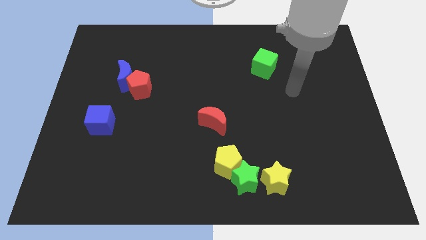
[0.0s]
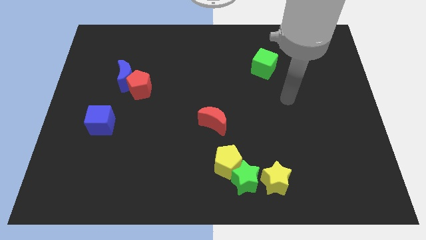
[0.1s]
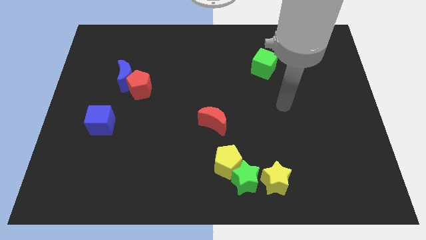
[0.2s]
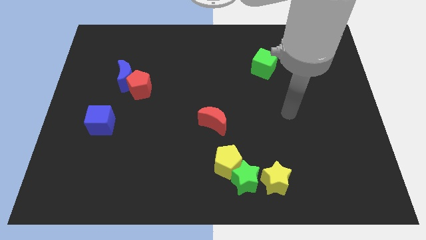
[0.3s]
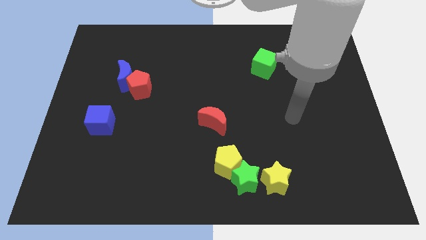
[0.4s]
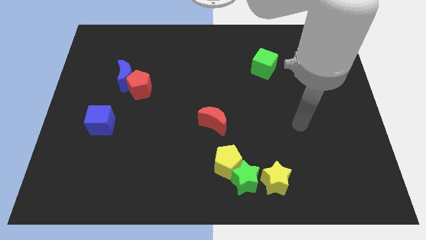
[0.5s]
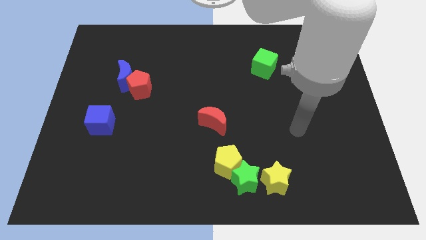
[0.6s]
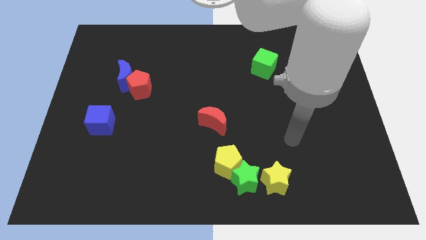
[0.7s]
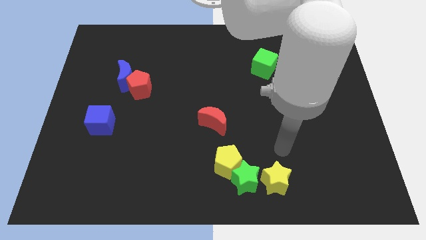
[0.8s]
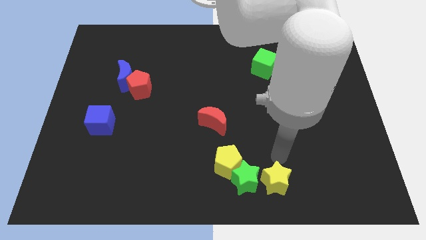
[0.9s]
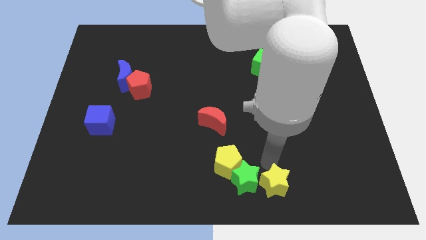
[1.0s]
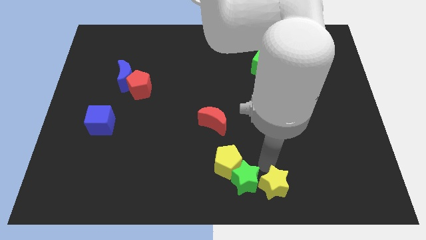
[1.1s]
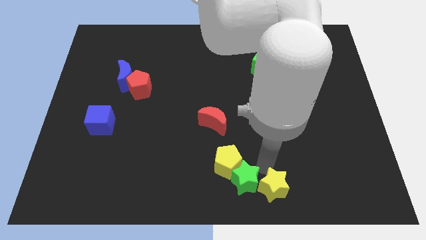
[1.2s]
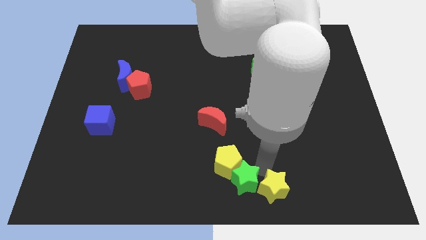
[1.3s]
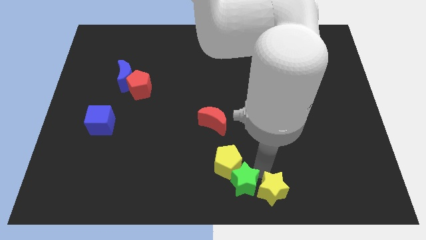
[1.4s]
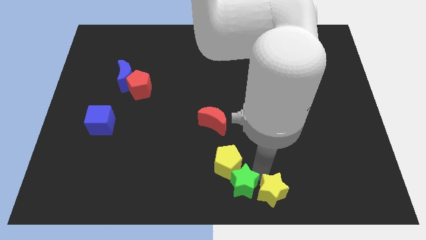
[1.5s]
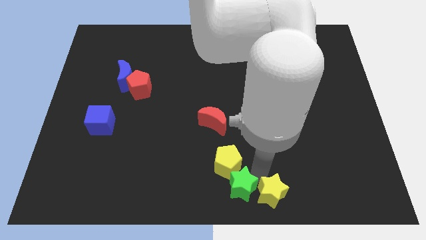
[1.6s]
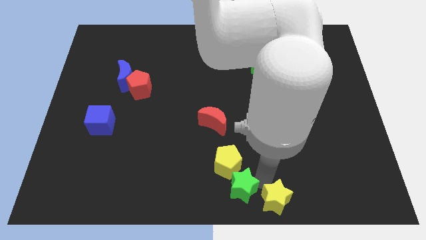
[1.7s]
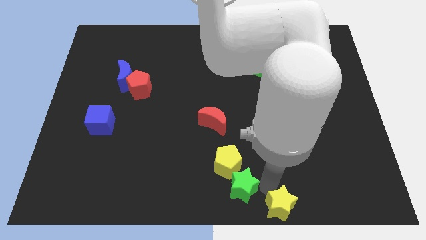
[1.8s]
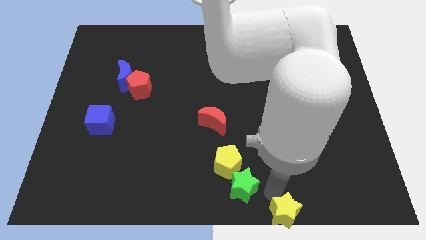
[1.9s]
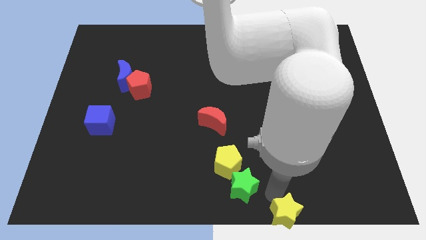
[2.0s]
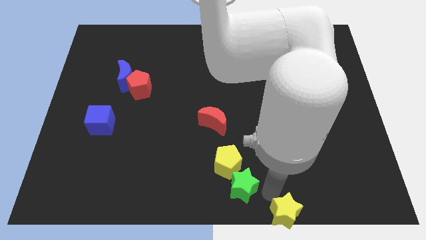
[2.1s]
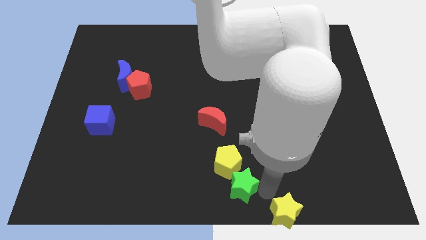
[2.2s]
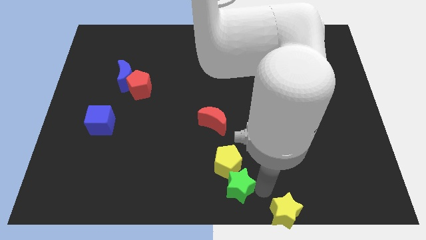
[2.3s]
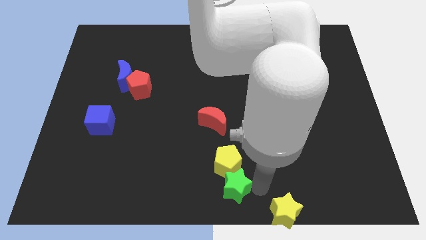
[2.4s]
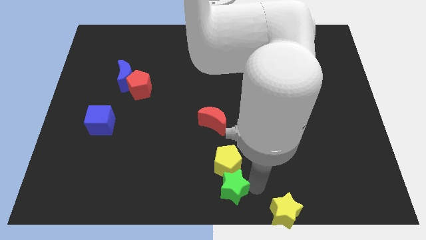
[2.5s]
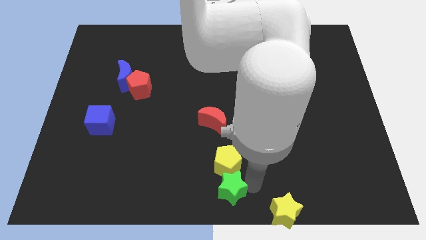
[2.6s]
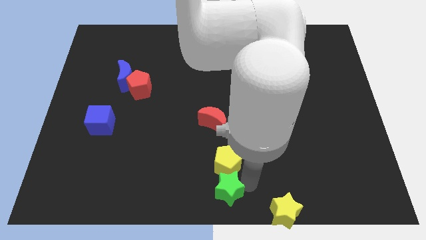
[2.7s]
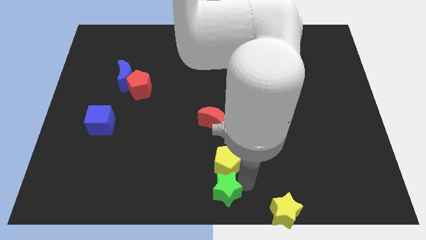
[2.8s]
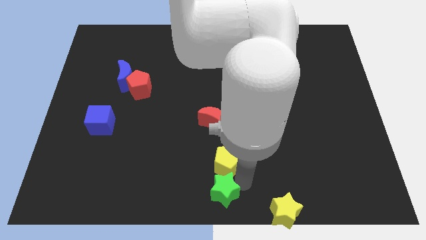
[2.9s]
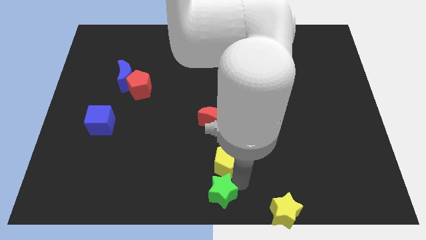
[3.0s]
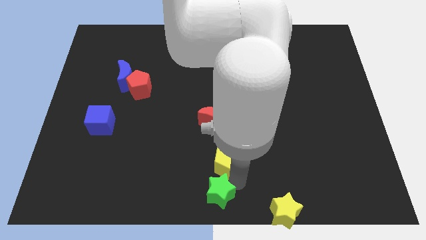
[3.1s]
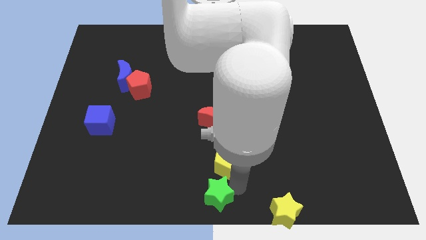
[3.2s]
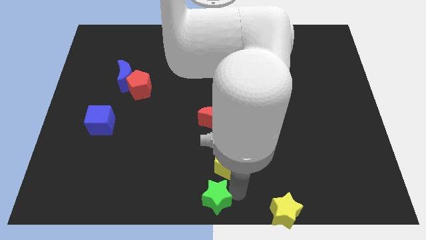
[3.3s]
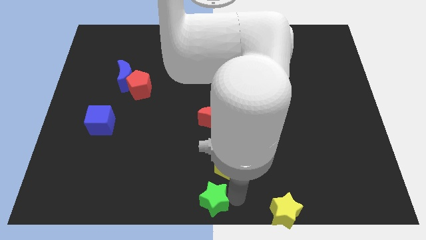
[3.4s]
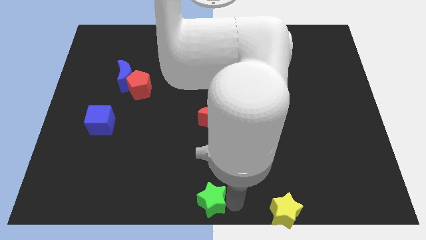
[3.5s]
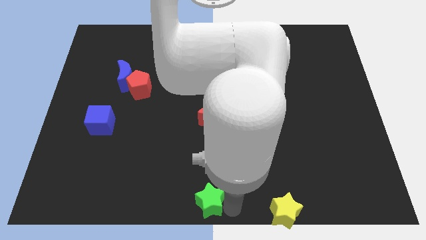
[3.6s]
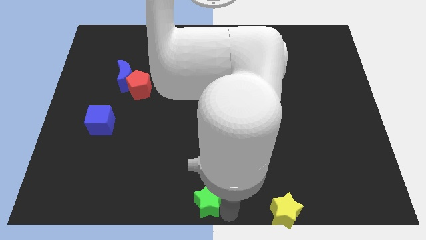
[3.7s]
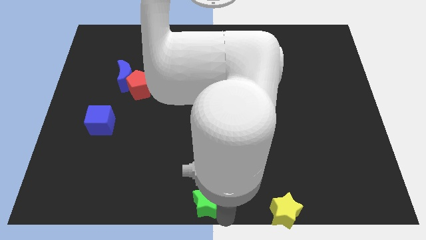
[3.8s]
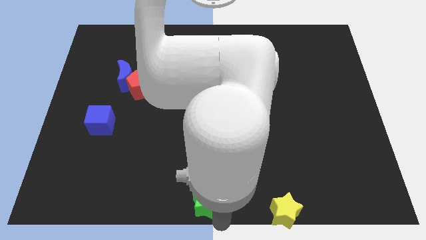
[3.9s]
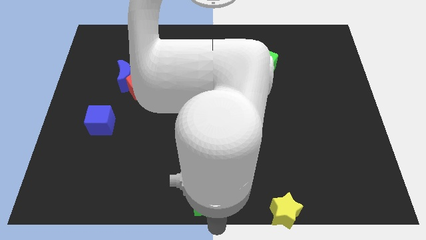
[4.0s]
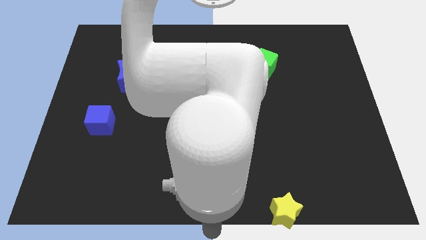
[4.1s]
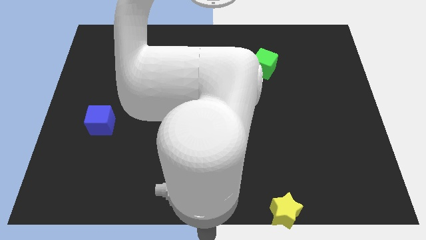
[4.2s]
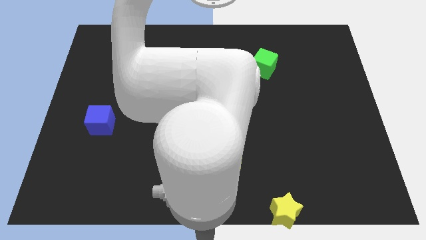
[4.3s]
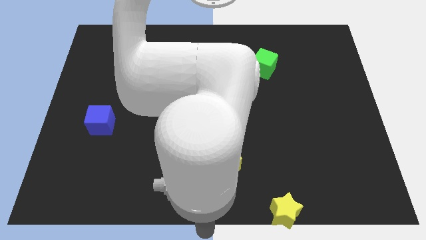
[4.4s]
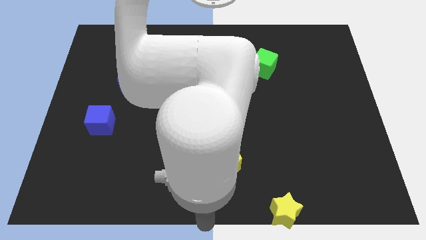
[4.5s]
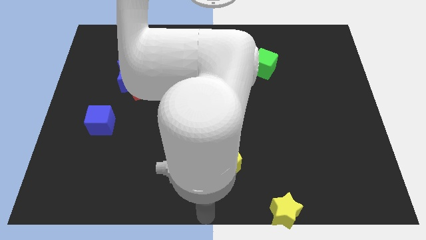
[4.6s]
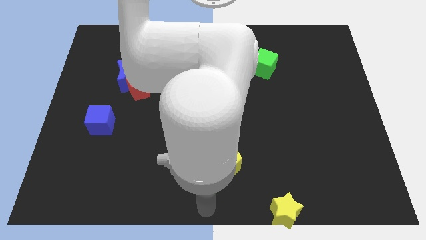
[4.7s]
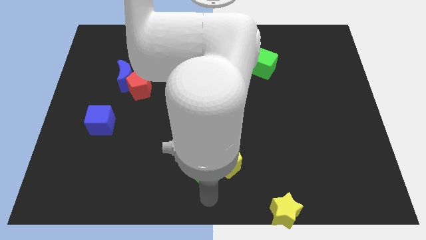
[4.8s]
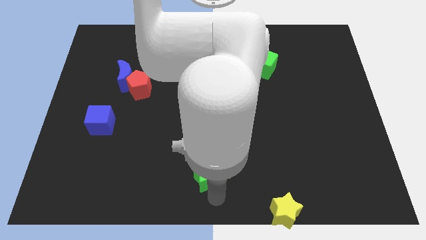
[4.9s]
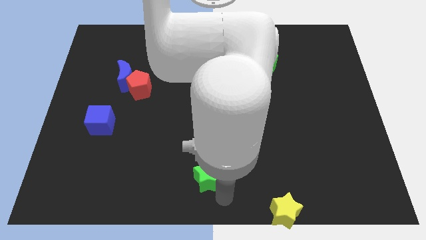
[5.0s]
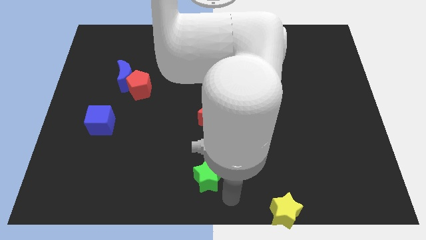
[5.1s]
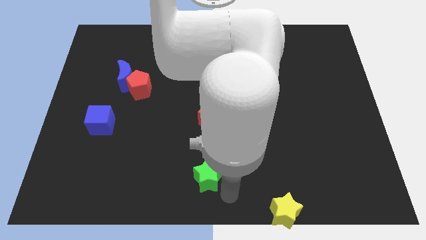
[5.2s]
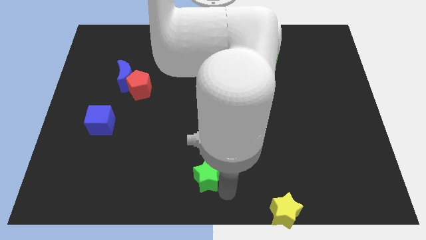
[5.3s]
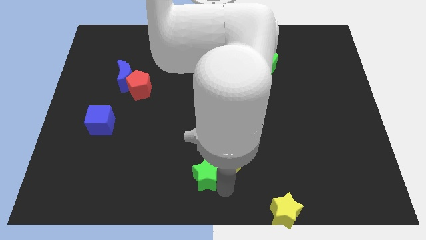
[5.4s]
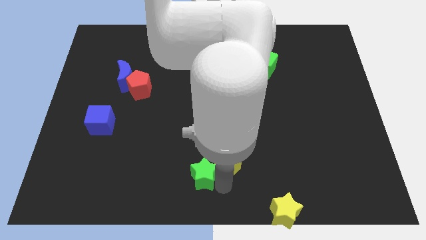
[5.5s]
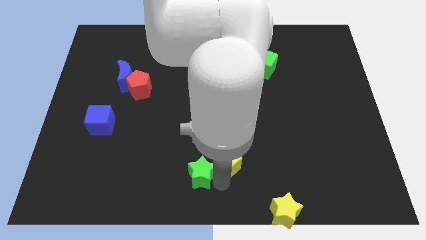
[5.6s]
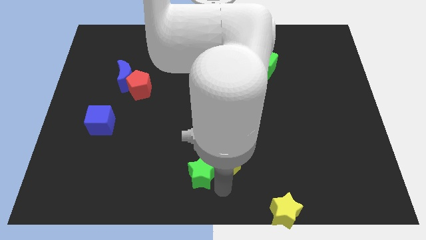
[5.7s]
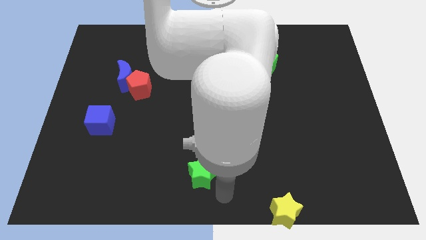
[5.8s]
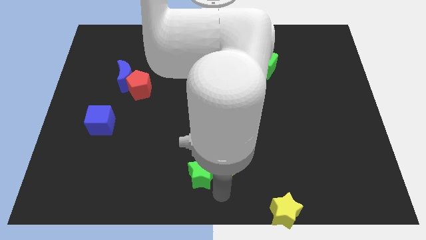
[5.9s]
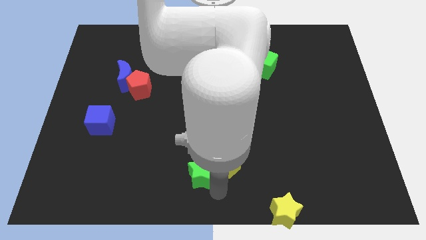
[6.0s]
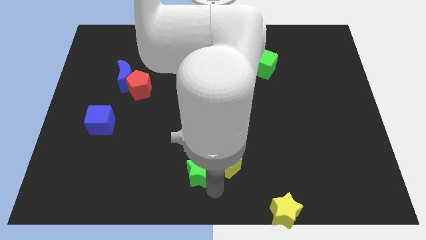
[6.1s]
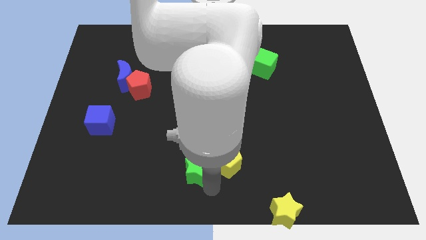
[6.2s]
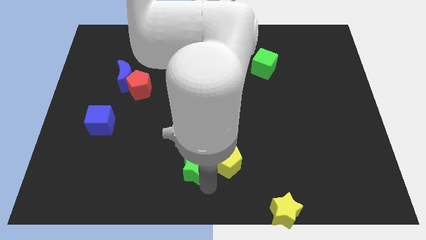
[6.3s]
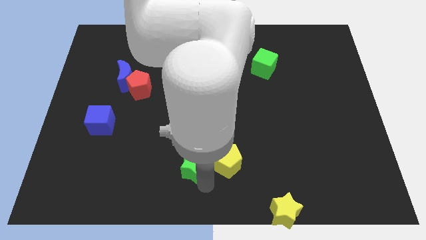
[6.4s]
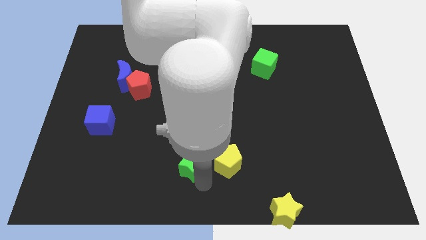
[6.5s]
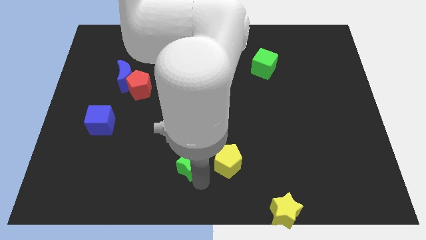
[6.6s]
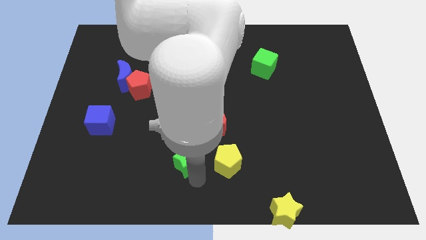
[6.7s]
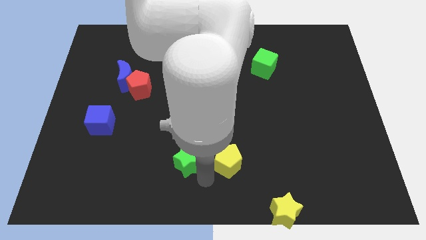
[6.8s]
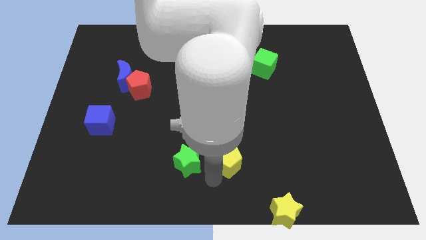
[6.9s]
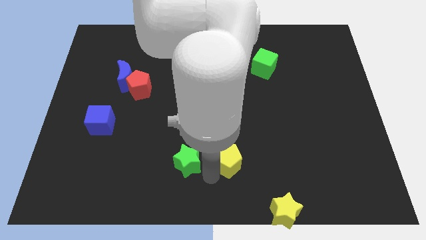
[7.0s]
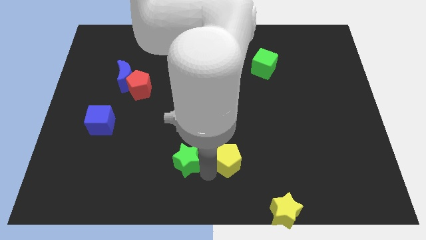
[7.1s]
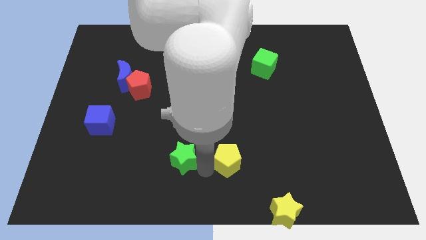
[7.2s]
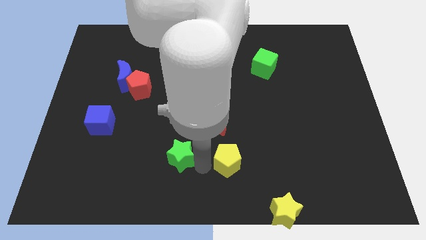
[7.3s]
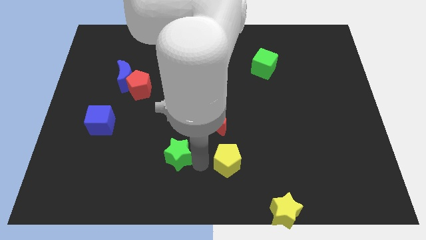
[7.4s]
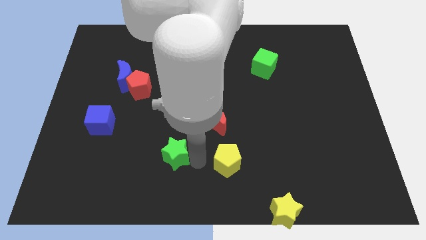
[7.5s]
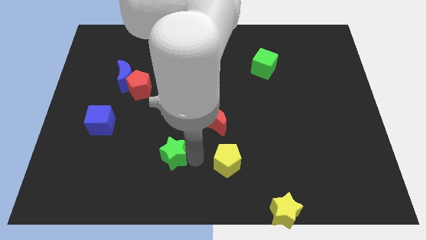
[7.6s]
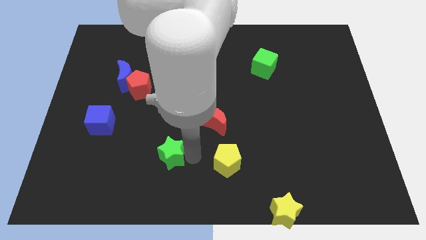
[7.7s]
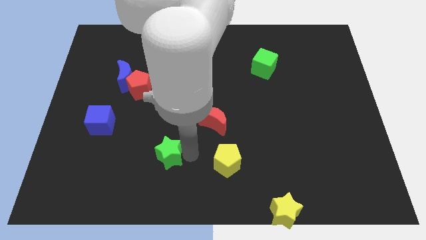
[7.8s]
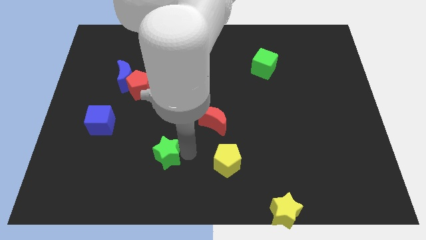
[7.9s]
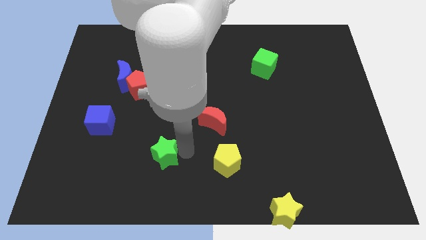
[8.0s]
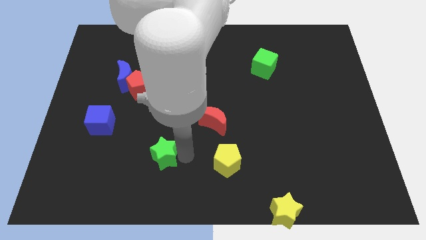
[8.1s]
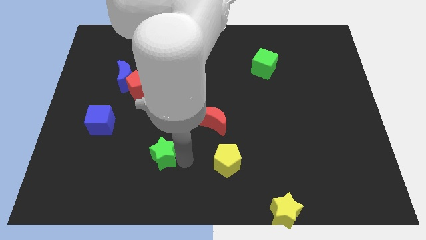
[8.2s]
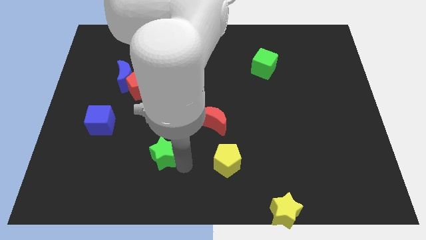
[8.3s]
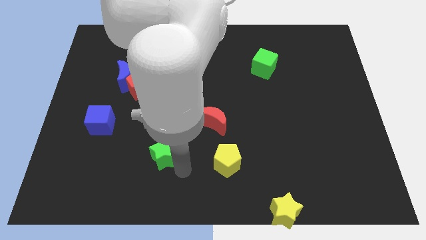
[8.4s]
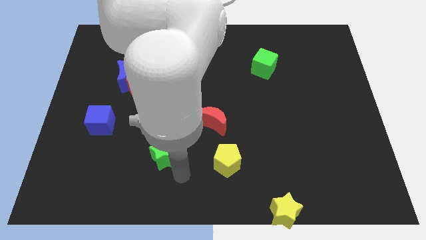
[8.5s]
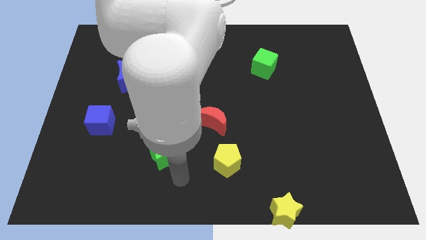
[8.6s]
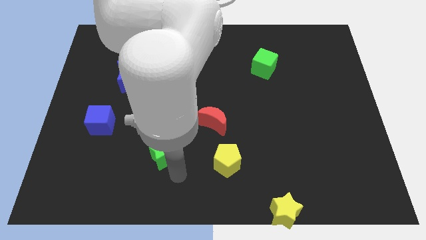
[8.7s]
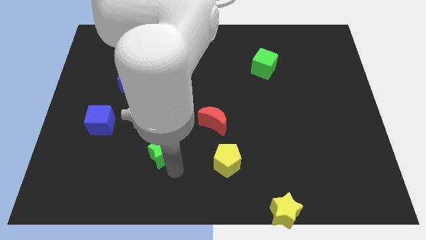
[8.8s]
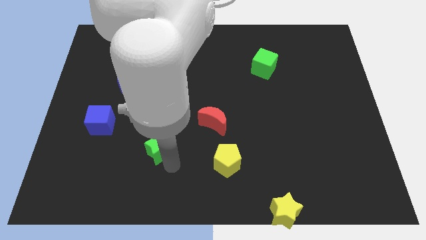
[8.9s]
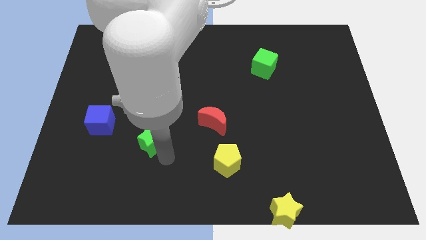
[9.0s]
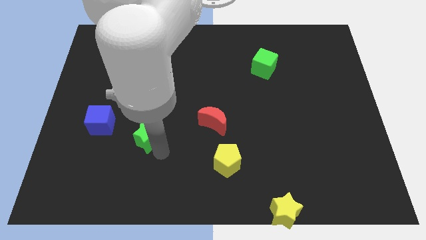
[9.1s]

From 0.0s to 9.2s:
slide the green star right of the blue cube
